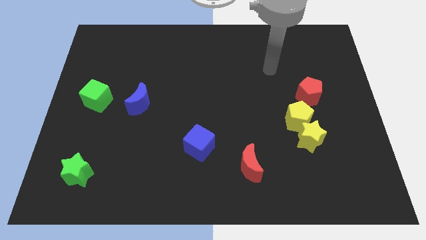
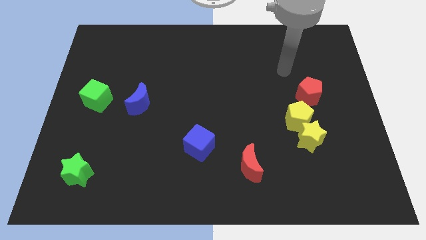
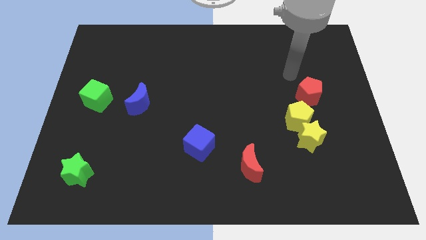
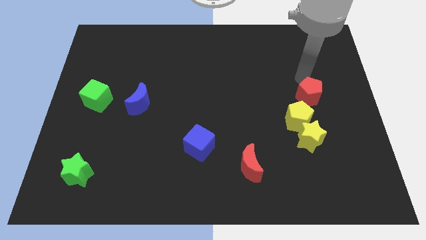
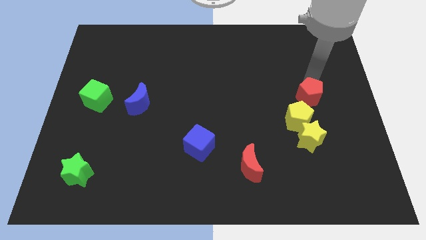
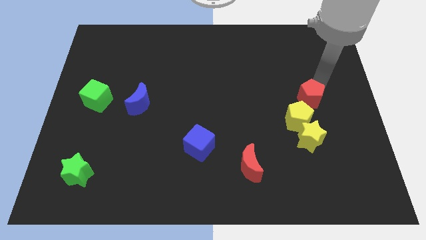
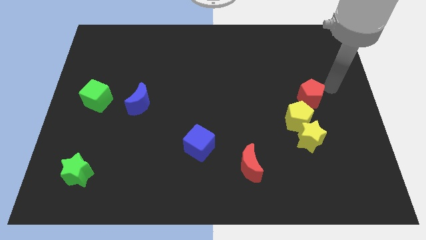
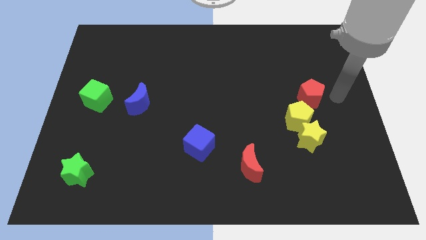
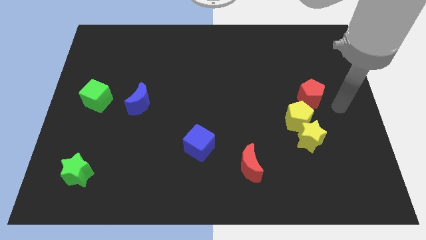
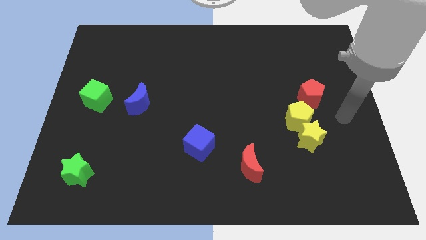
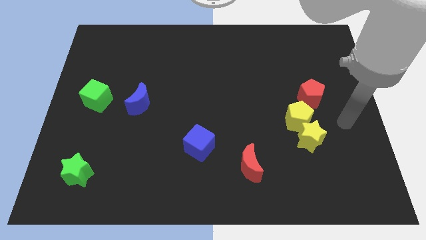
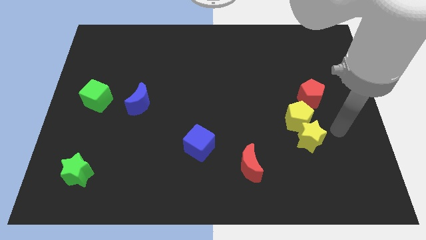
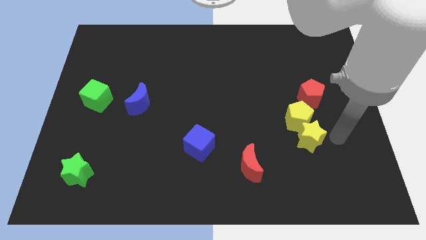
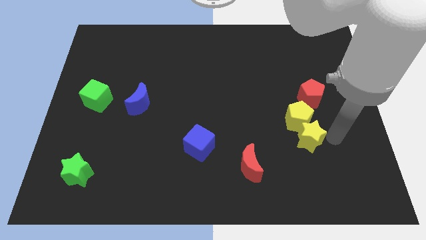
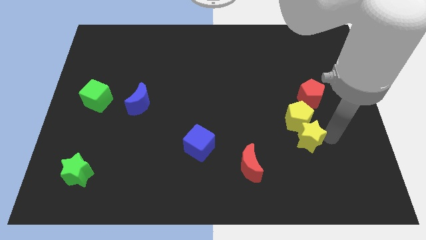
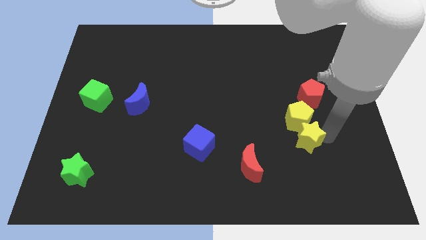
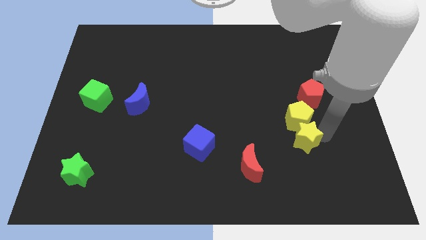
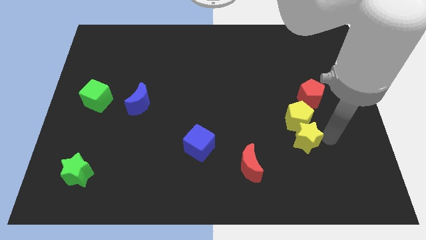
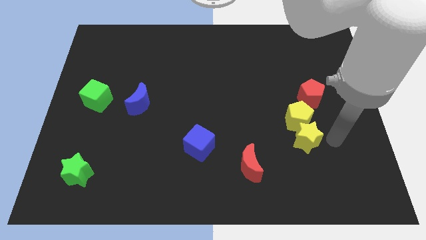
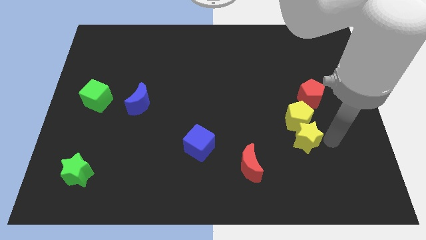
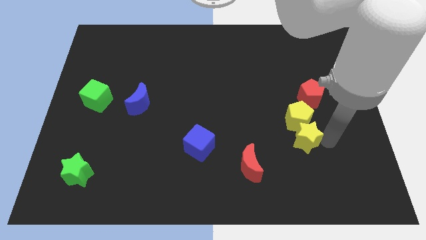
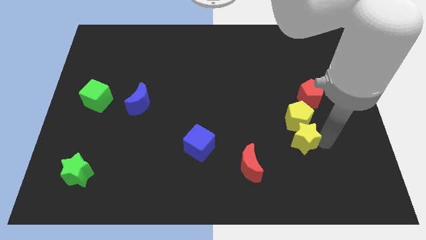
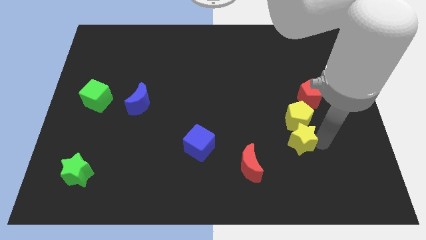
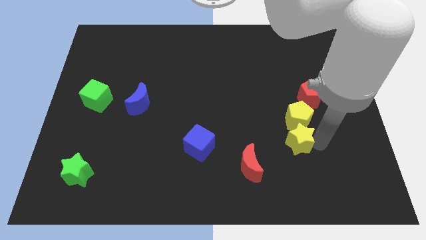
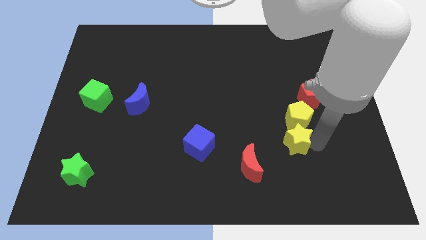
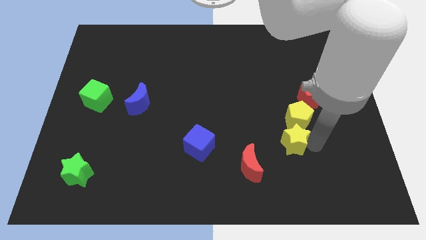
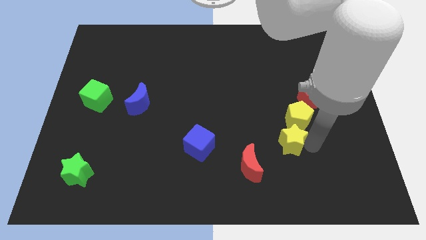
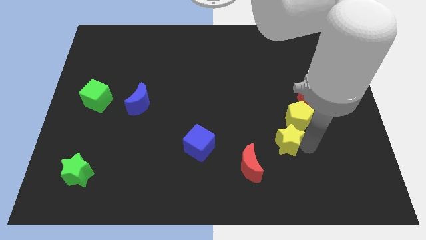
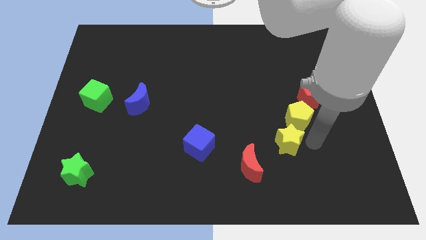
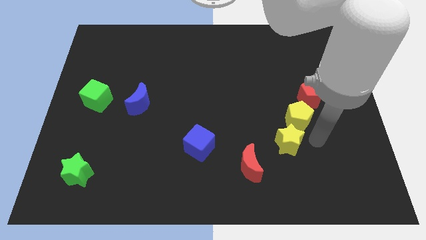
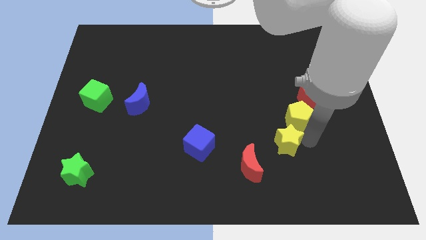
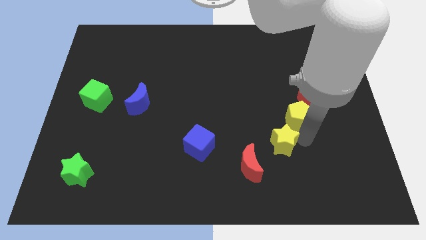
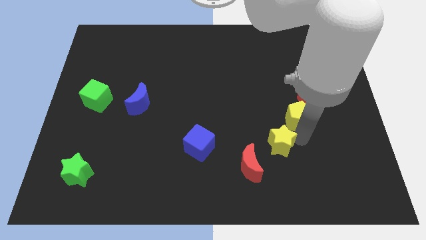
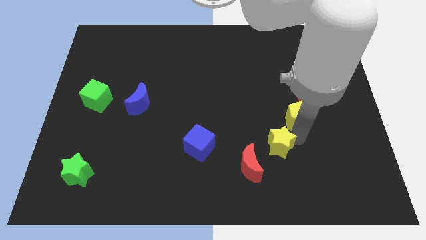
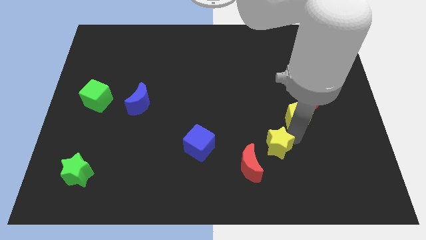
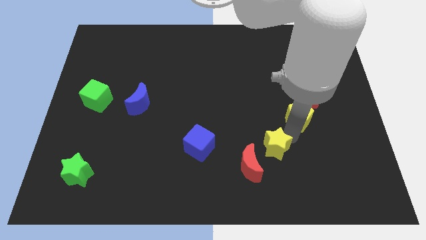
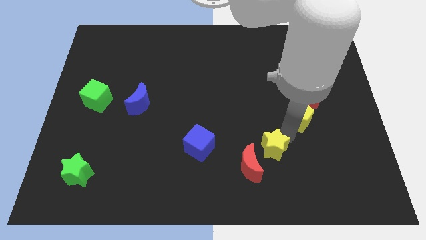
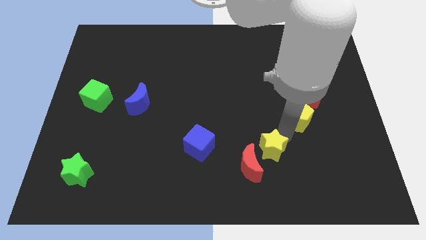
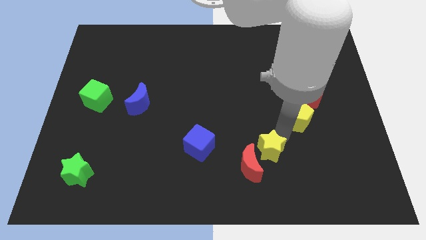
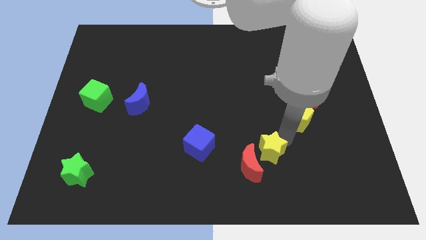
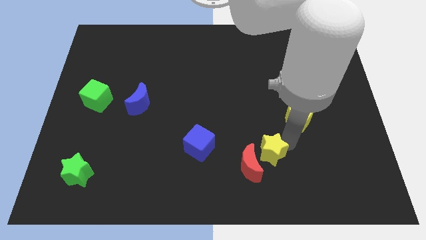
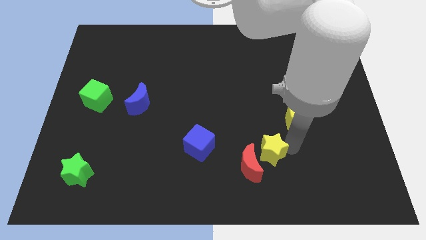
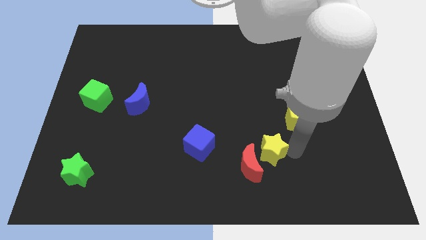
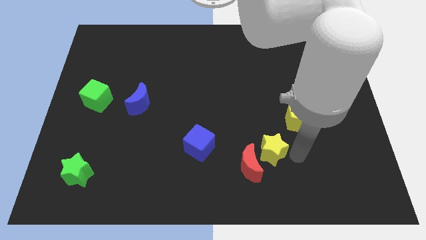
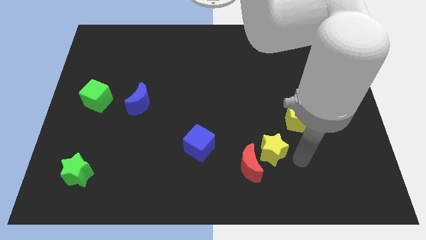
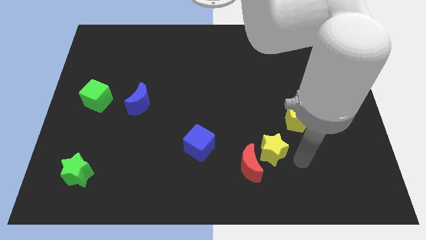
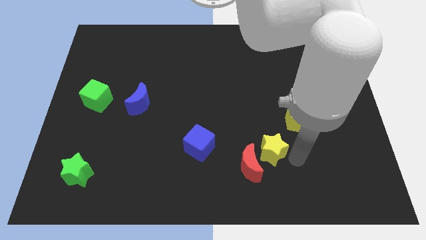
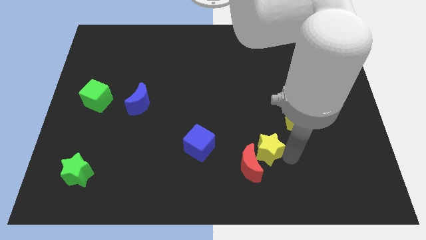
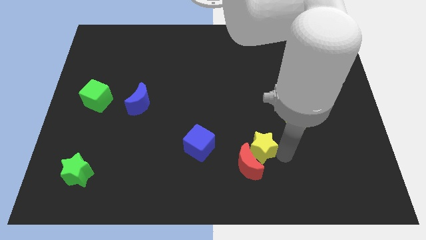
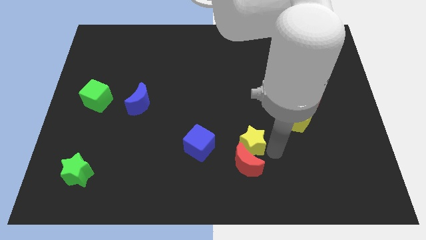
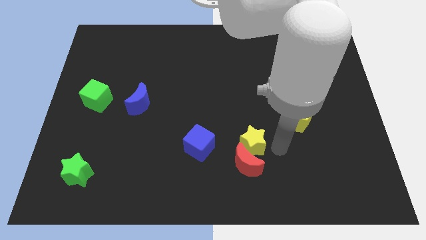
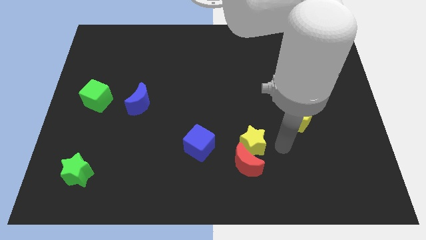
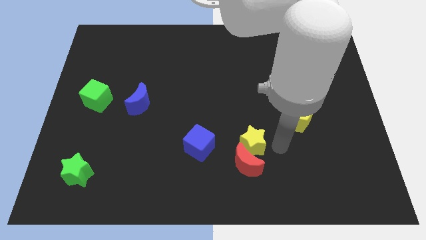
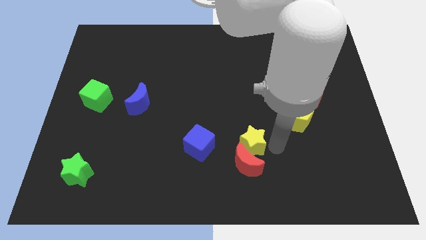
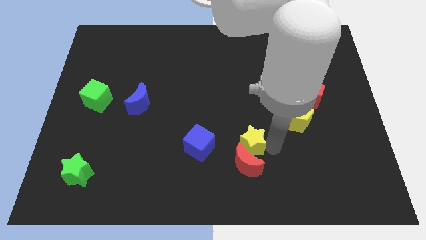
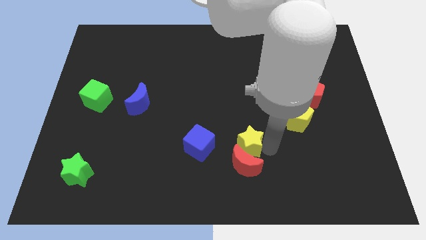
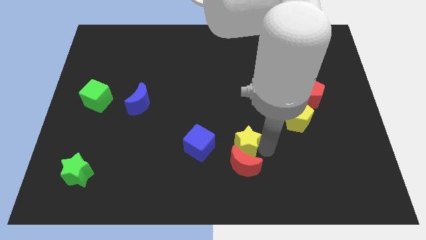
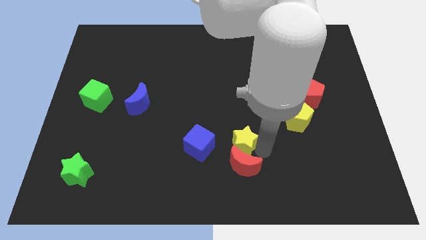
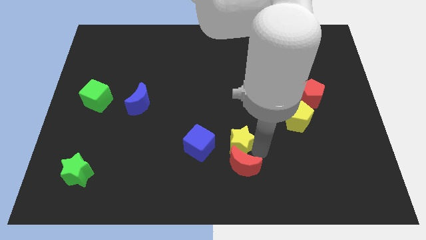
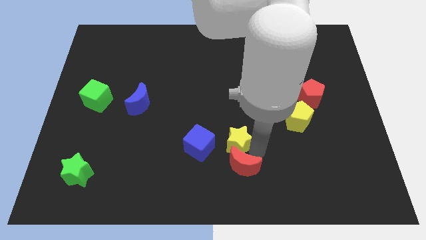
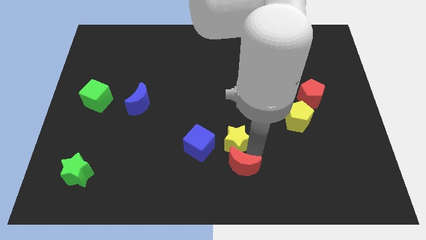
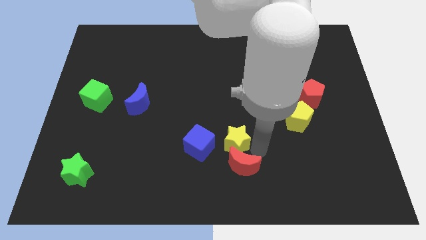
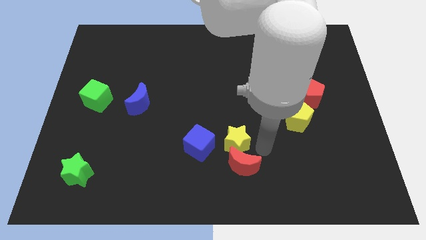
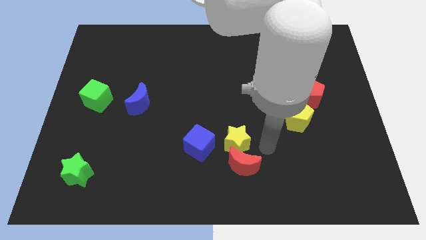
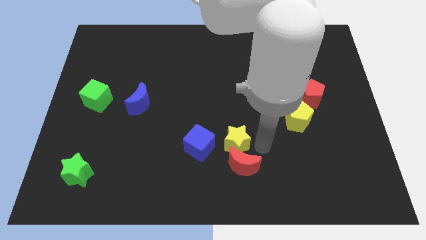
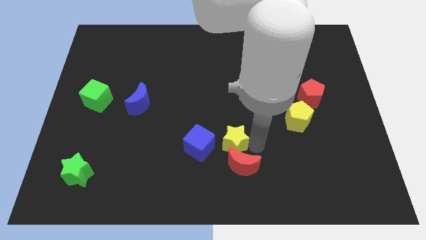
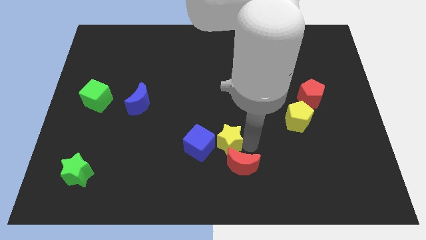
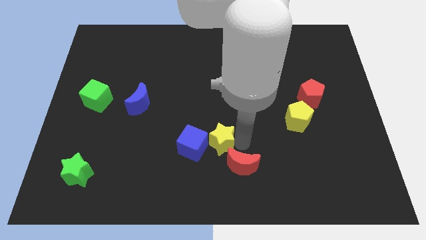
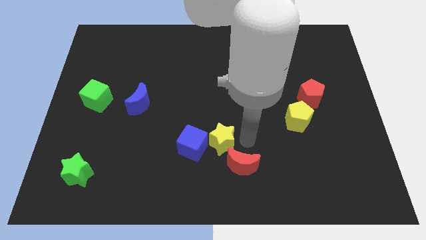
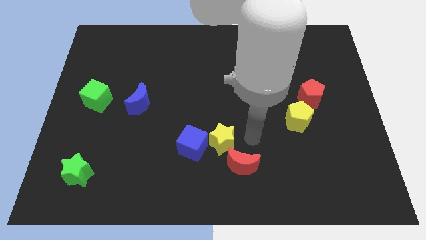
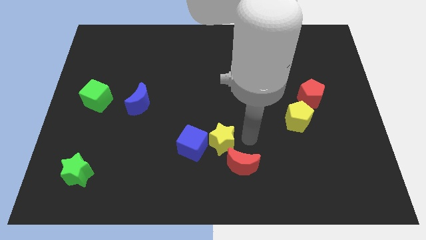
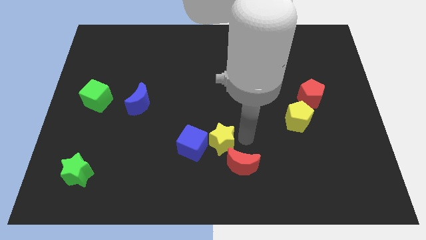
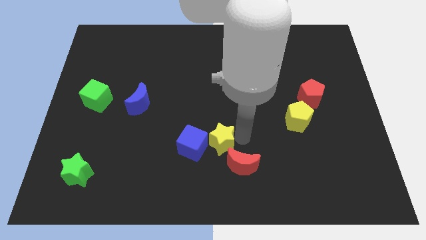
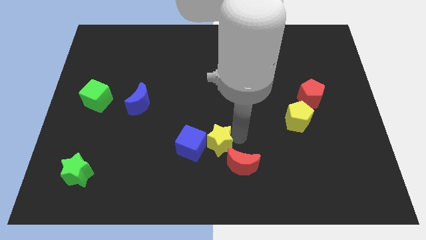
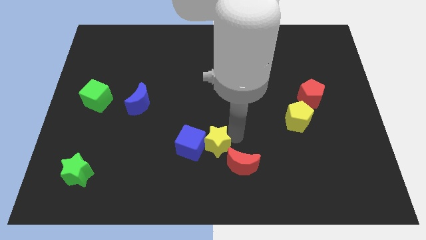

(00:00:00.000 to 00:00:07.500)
slide the yellow star towards the blue cube
